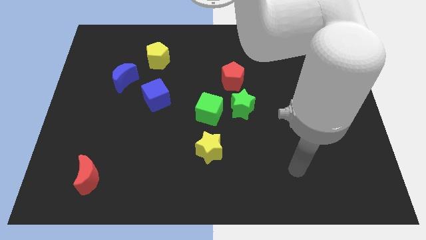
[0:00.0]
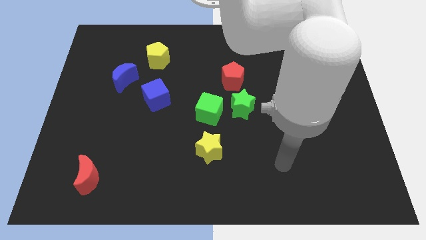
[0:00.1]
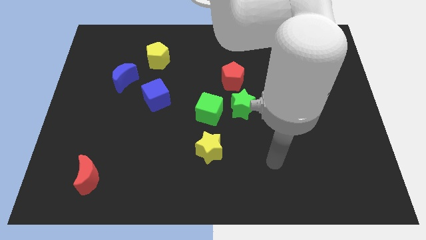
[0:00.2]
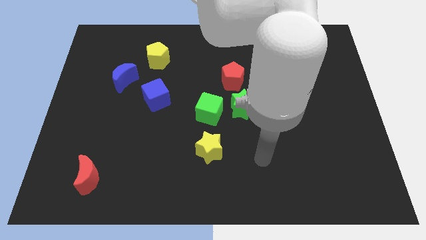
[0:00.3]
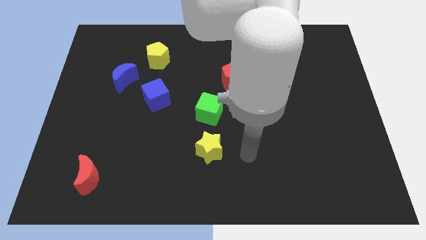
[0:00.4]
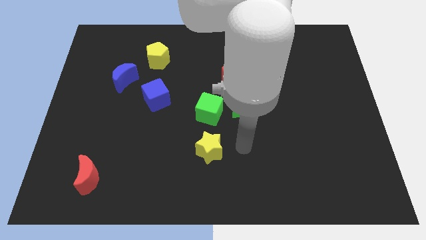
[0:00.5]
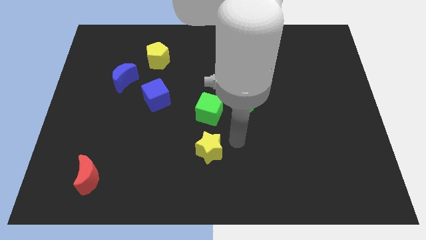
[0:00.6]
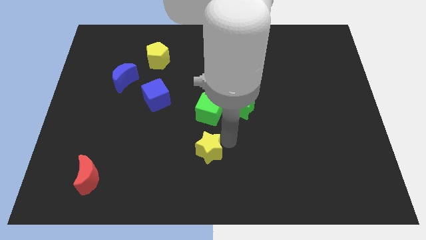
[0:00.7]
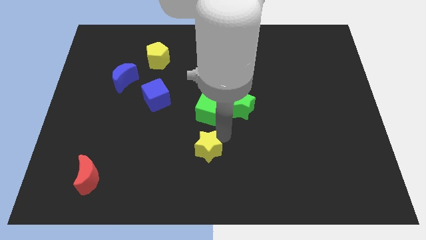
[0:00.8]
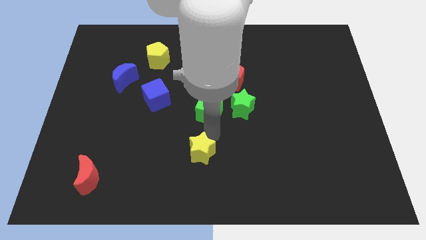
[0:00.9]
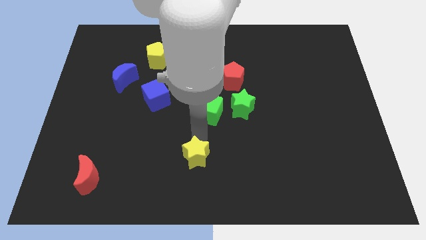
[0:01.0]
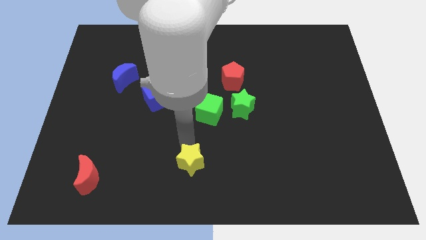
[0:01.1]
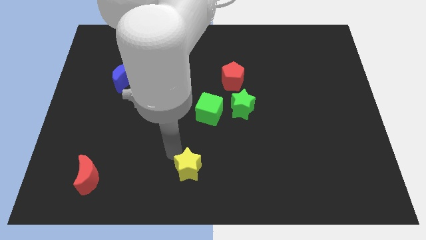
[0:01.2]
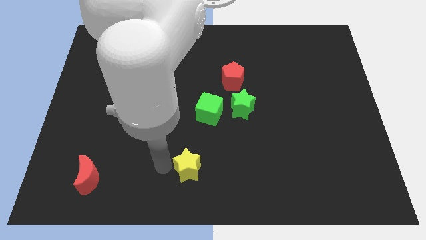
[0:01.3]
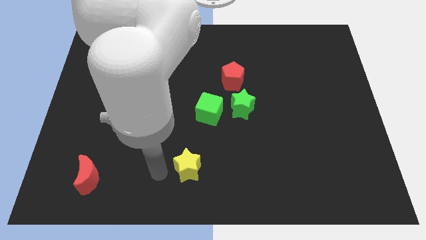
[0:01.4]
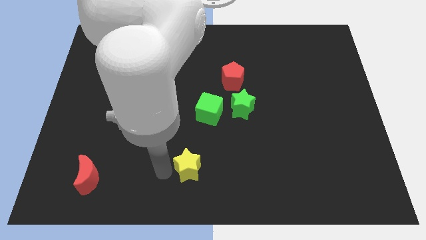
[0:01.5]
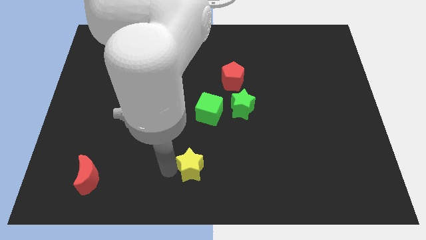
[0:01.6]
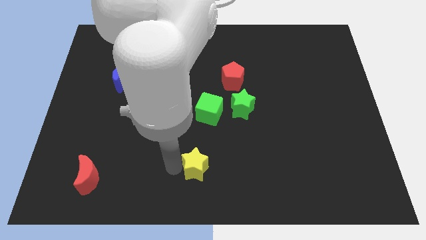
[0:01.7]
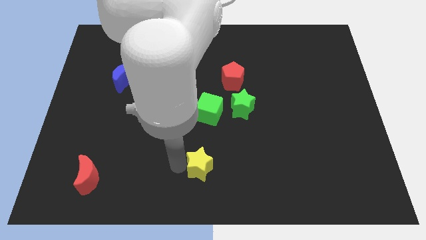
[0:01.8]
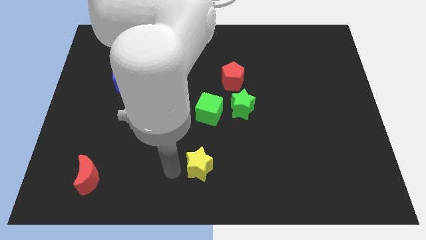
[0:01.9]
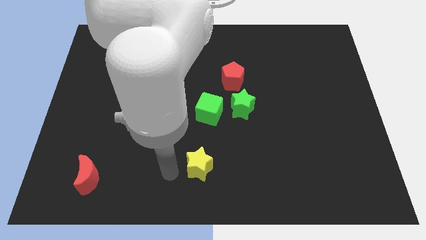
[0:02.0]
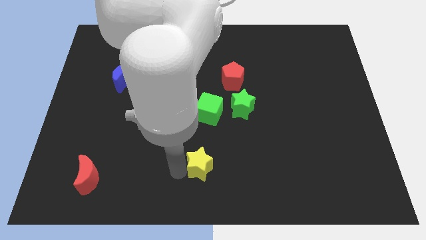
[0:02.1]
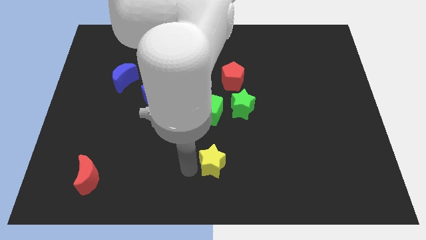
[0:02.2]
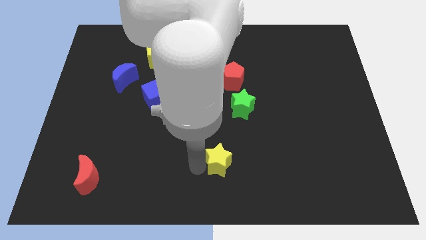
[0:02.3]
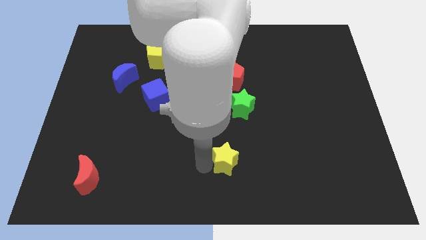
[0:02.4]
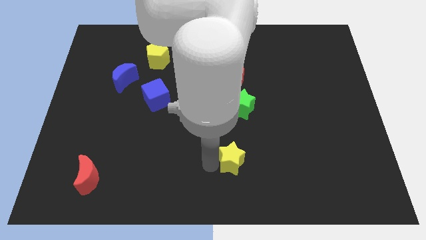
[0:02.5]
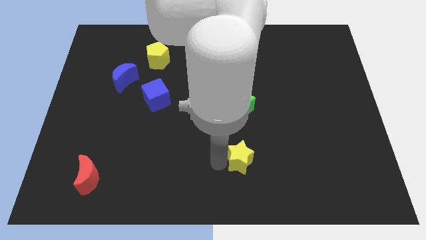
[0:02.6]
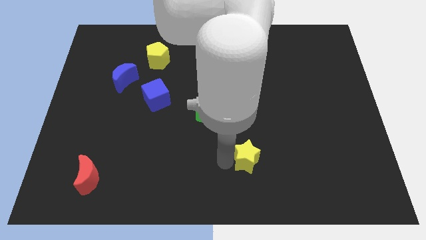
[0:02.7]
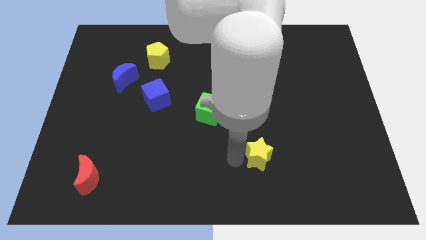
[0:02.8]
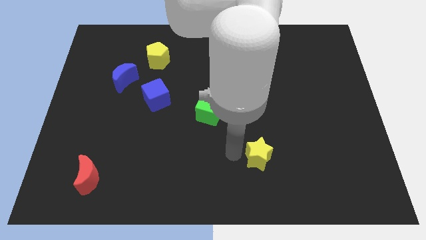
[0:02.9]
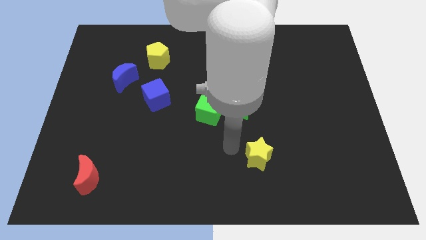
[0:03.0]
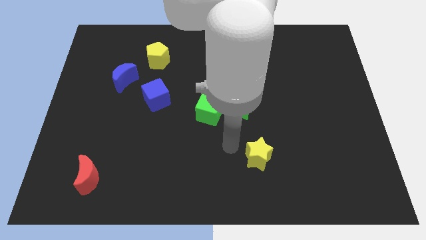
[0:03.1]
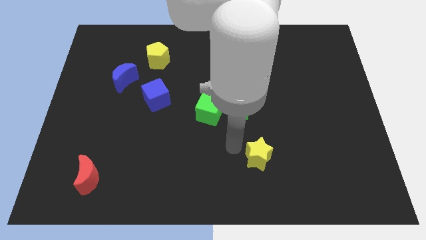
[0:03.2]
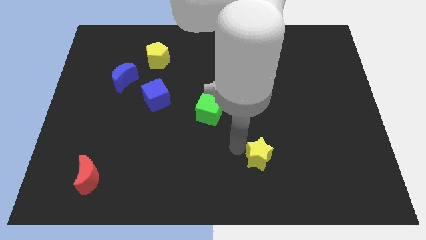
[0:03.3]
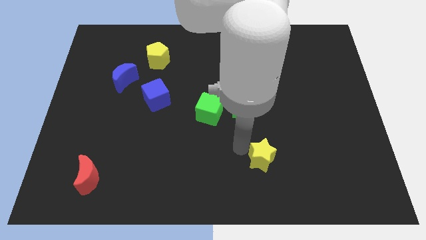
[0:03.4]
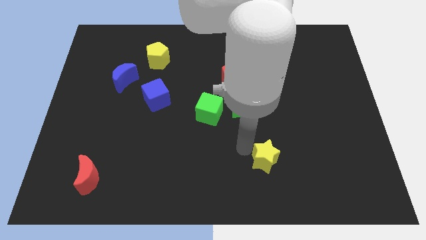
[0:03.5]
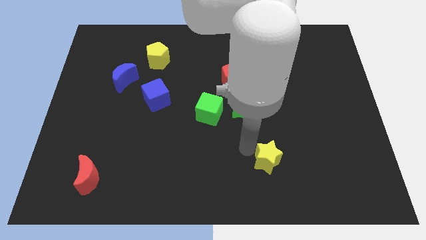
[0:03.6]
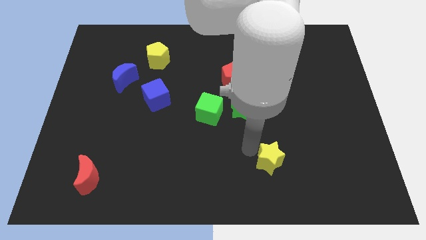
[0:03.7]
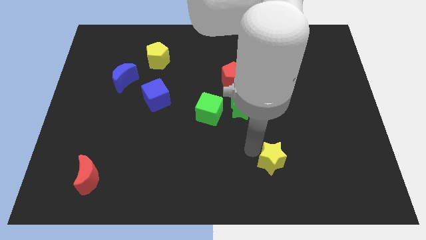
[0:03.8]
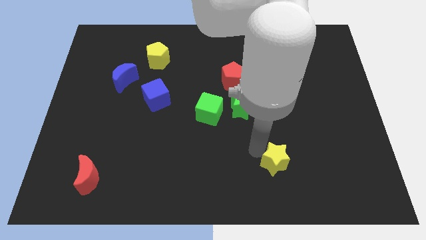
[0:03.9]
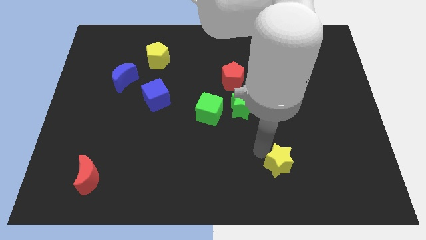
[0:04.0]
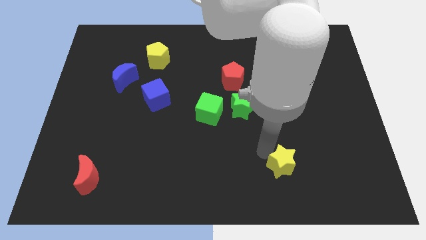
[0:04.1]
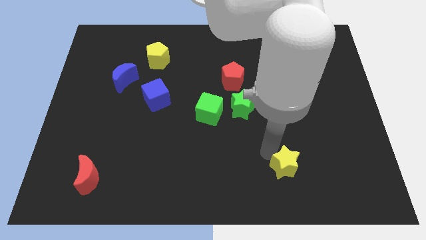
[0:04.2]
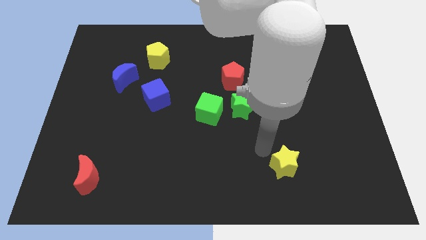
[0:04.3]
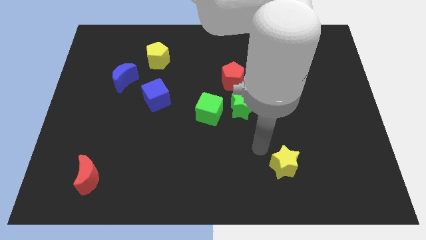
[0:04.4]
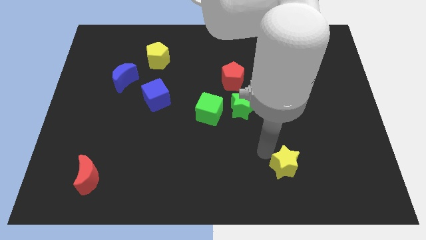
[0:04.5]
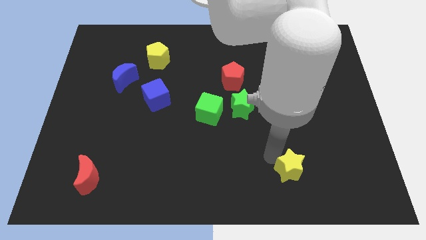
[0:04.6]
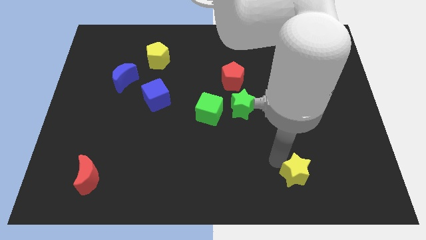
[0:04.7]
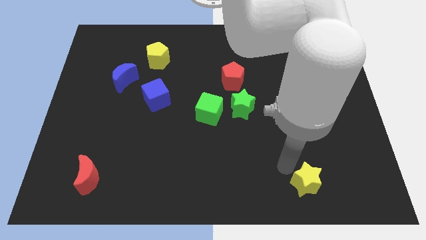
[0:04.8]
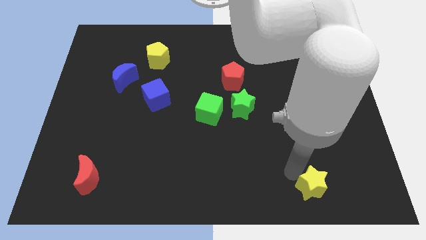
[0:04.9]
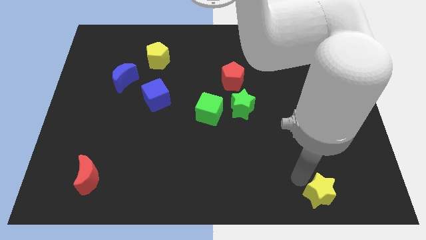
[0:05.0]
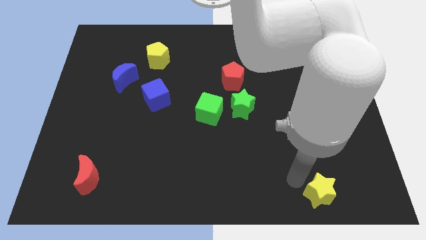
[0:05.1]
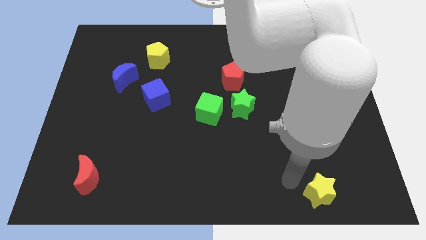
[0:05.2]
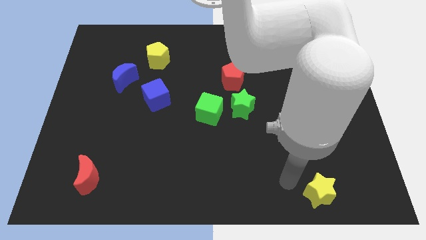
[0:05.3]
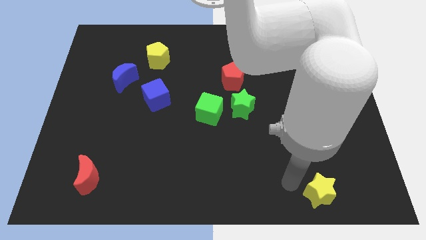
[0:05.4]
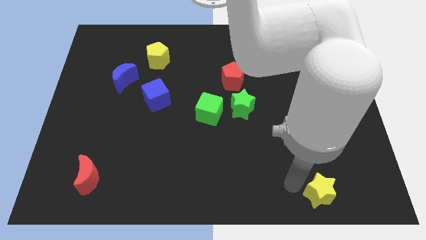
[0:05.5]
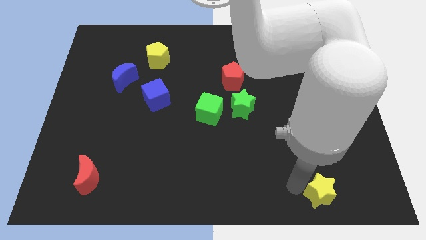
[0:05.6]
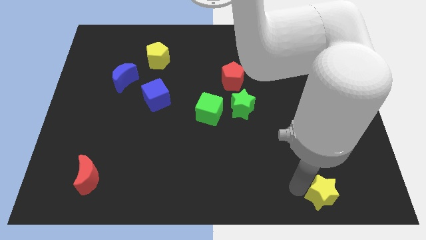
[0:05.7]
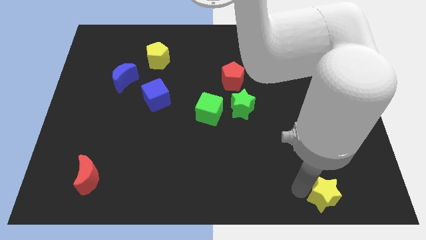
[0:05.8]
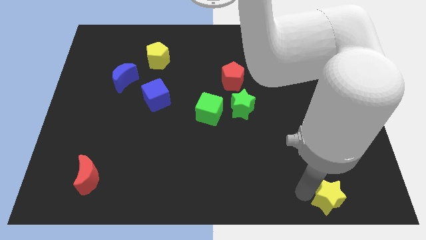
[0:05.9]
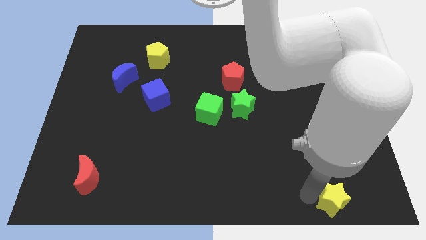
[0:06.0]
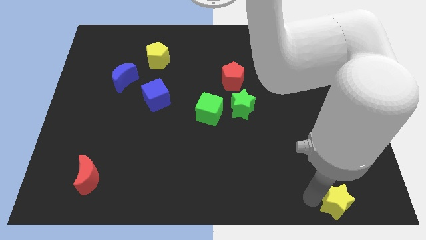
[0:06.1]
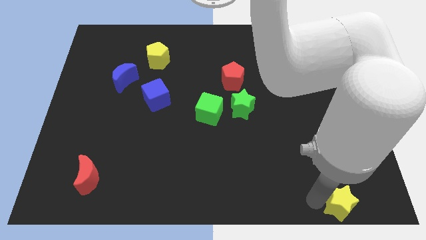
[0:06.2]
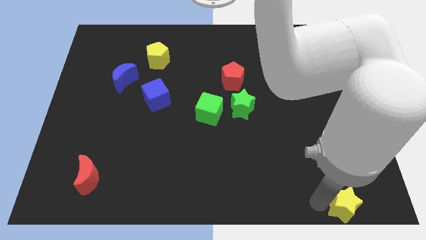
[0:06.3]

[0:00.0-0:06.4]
put the yellow star to the bottom right corner
